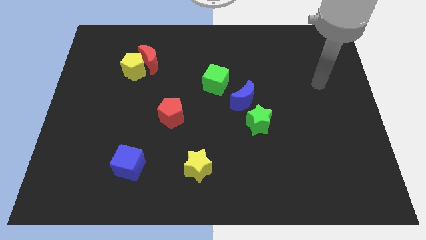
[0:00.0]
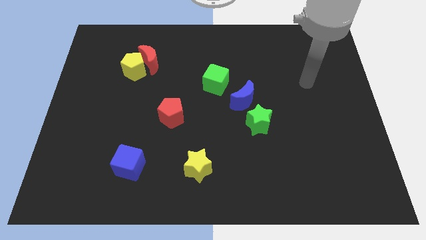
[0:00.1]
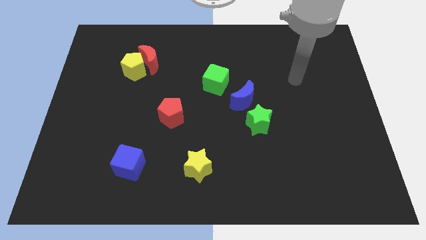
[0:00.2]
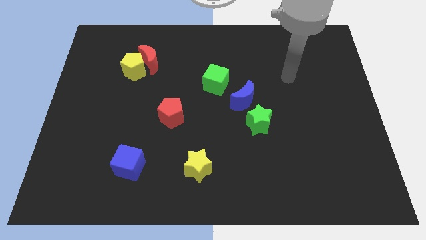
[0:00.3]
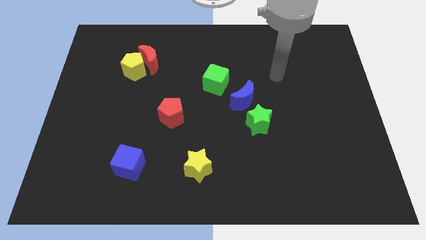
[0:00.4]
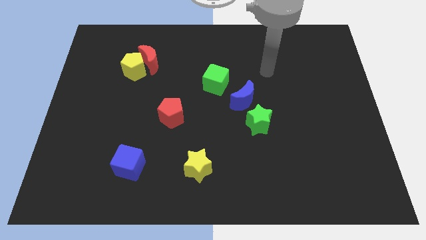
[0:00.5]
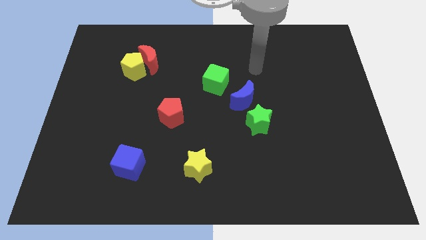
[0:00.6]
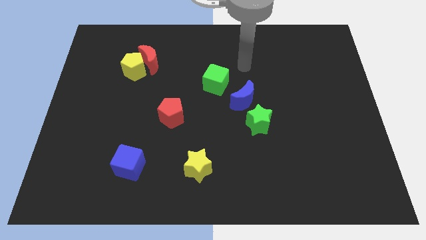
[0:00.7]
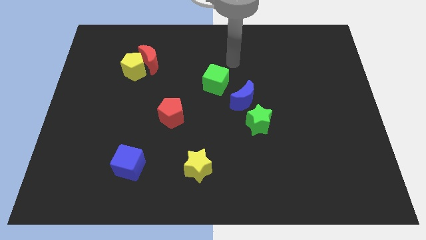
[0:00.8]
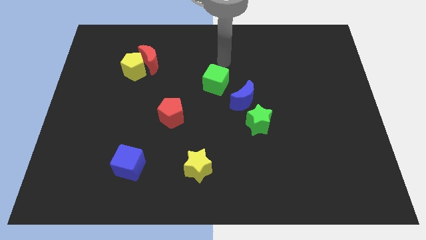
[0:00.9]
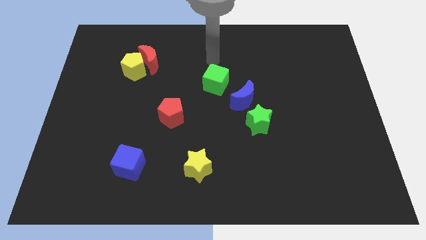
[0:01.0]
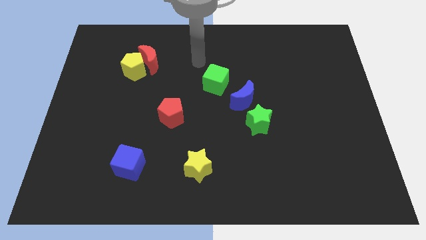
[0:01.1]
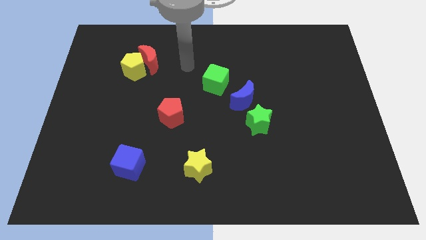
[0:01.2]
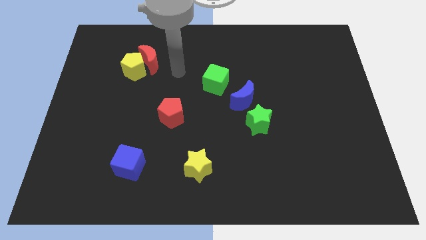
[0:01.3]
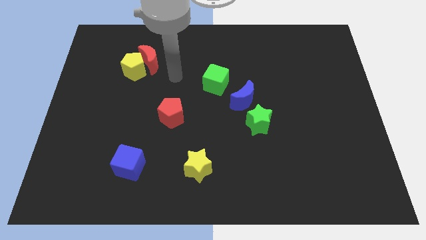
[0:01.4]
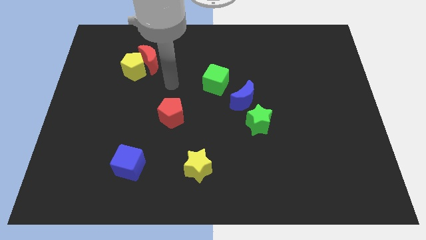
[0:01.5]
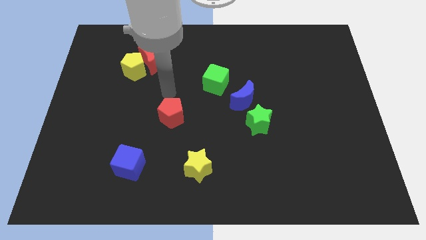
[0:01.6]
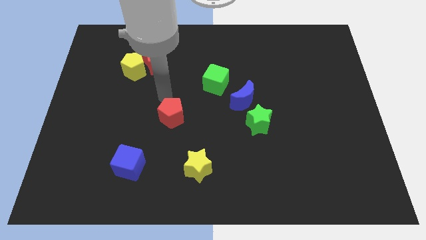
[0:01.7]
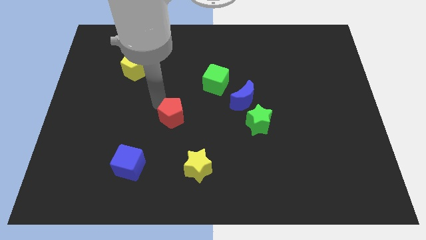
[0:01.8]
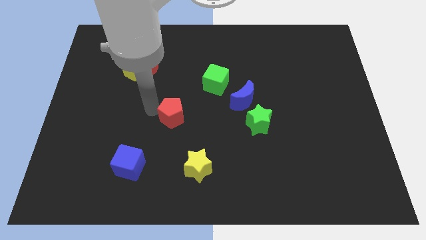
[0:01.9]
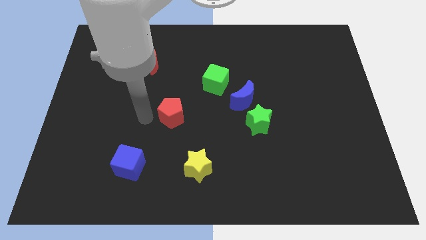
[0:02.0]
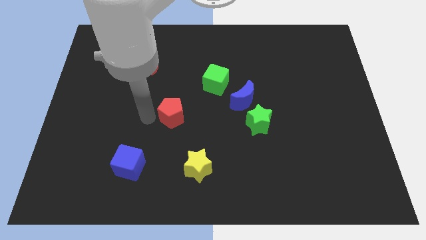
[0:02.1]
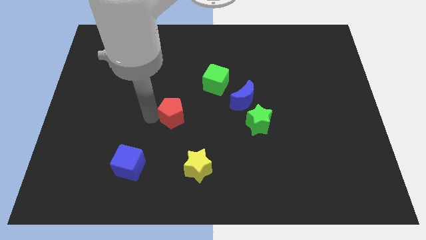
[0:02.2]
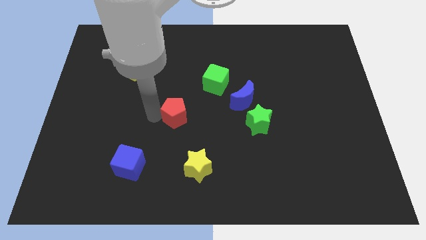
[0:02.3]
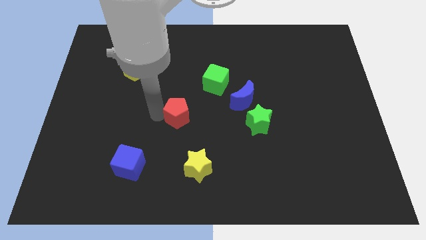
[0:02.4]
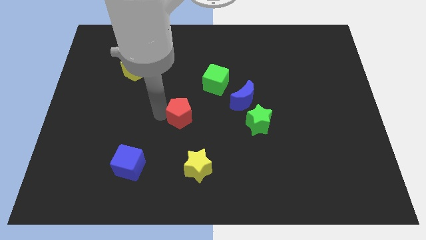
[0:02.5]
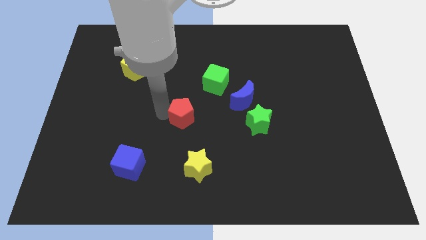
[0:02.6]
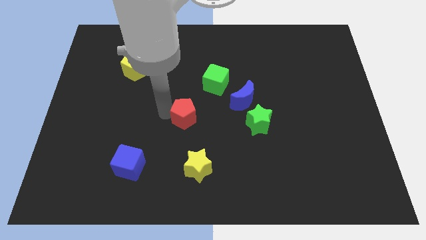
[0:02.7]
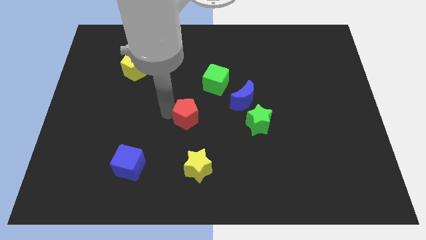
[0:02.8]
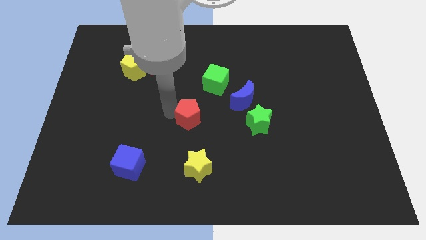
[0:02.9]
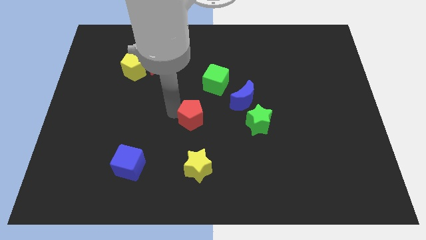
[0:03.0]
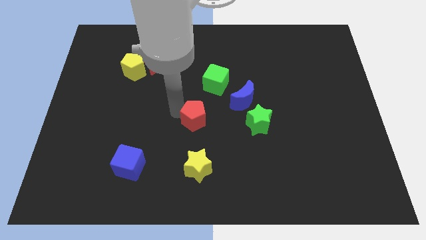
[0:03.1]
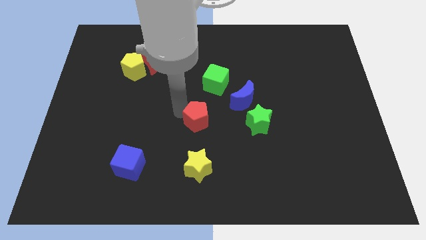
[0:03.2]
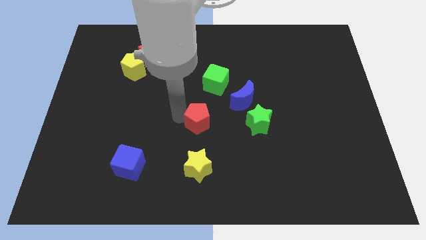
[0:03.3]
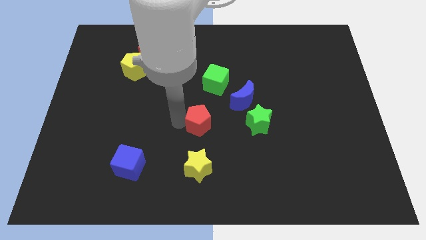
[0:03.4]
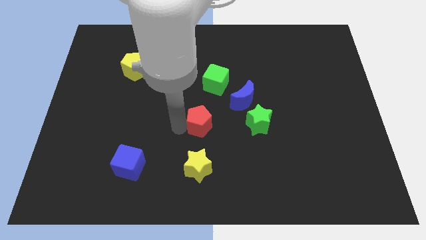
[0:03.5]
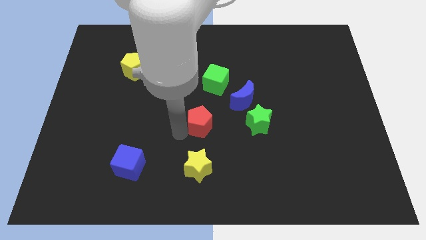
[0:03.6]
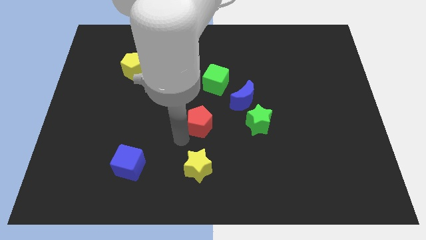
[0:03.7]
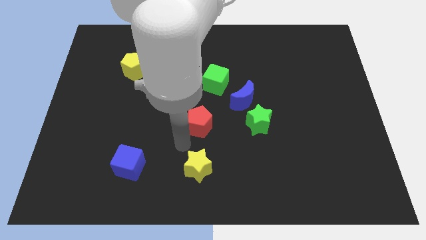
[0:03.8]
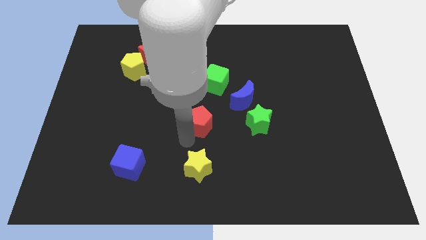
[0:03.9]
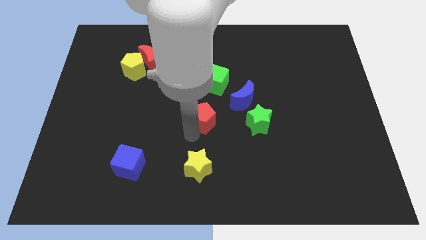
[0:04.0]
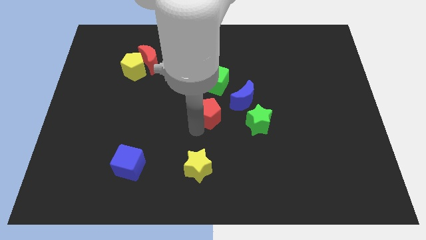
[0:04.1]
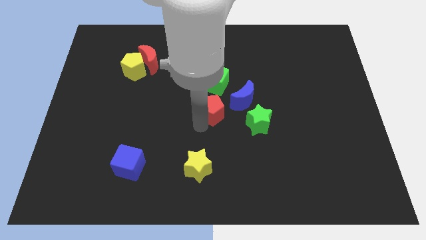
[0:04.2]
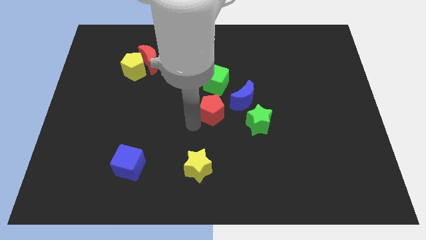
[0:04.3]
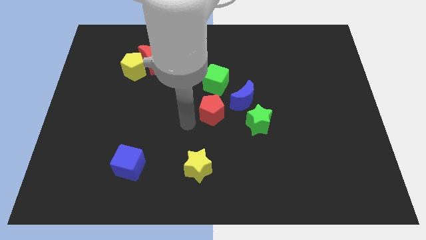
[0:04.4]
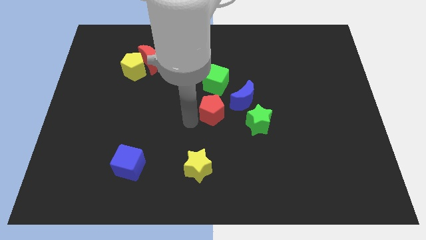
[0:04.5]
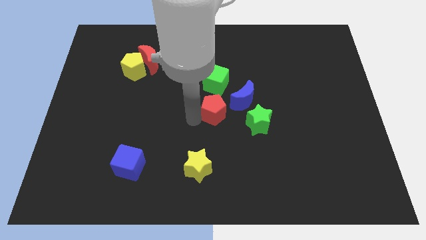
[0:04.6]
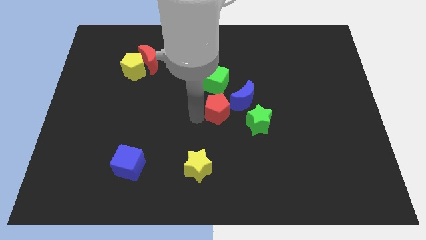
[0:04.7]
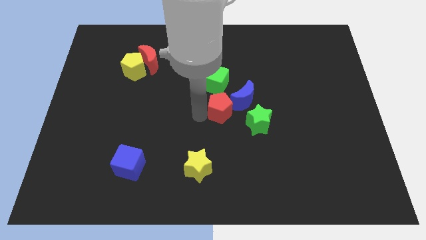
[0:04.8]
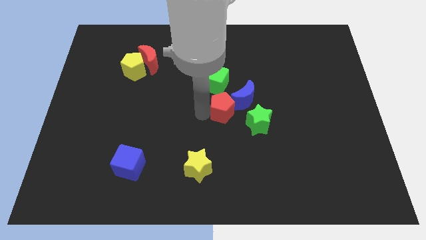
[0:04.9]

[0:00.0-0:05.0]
put the red pentagon next to the blue moon

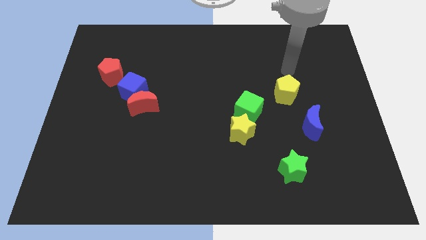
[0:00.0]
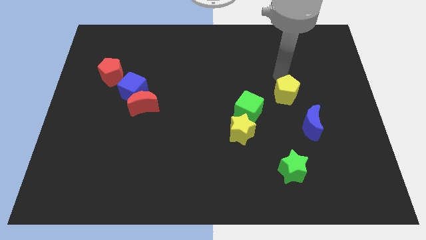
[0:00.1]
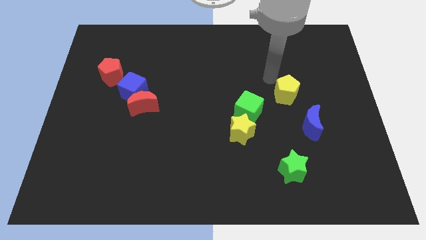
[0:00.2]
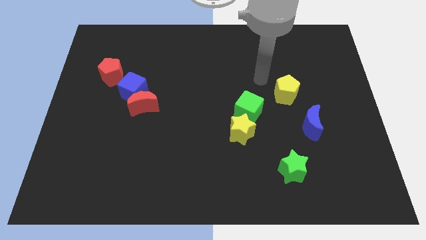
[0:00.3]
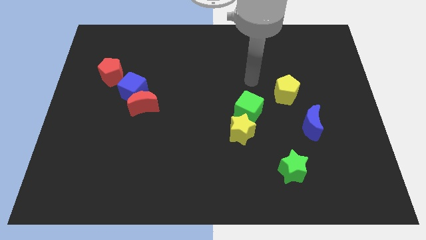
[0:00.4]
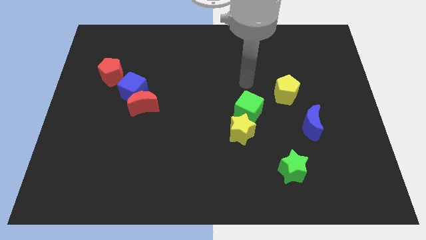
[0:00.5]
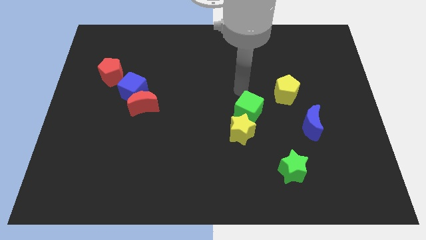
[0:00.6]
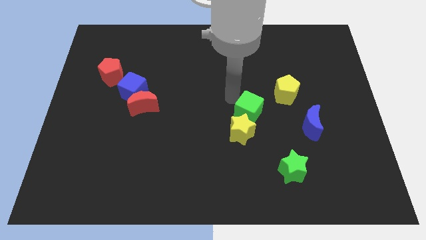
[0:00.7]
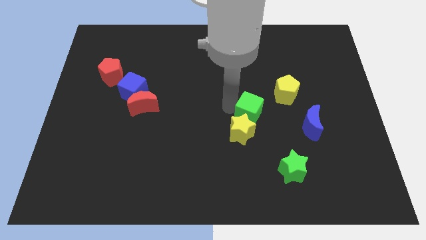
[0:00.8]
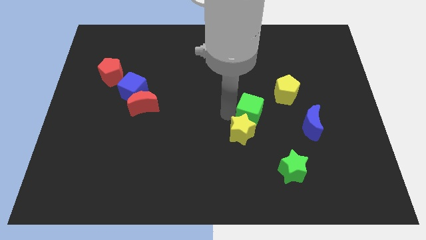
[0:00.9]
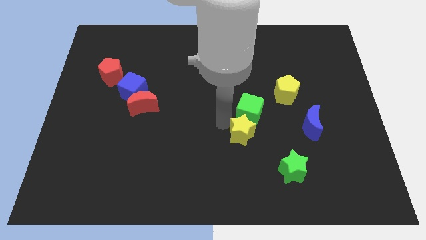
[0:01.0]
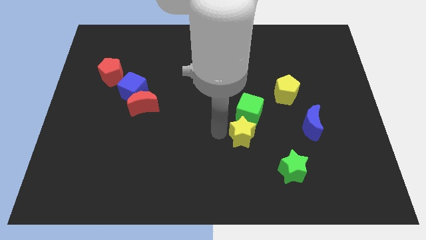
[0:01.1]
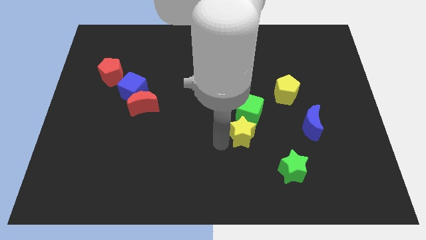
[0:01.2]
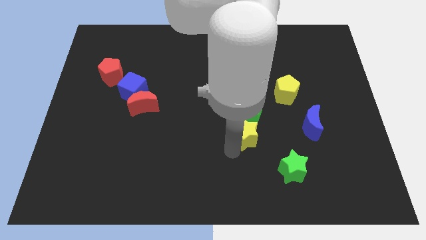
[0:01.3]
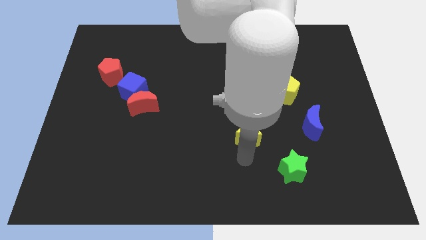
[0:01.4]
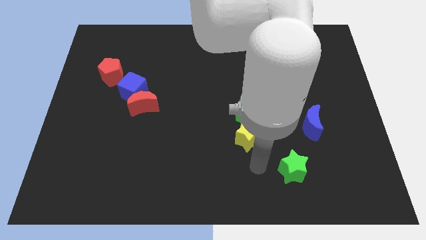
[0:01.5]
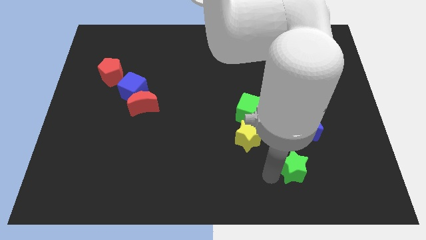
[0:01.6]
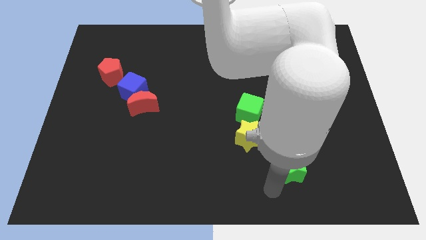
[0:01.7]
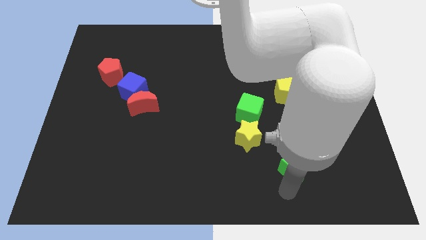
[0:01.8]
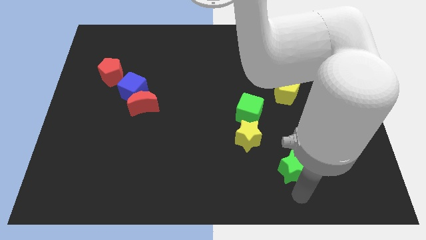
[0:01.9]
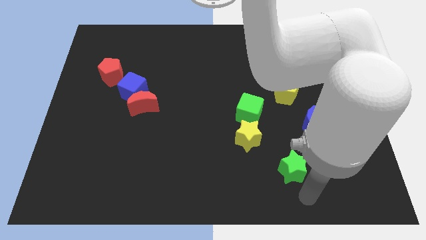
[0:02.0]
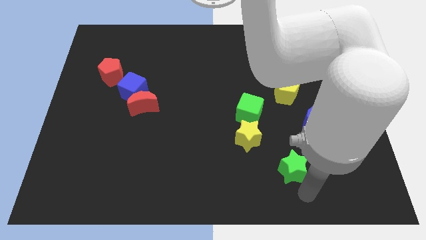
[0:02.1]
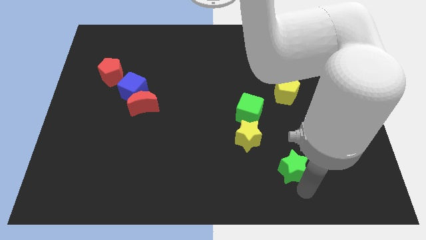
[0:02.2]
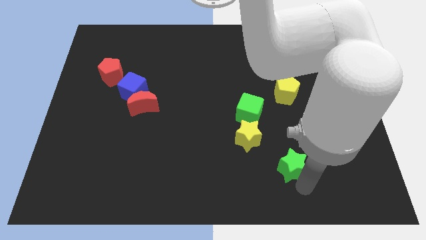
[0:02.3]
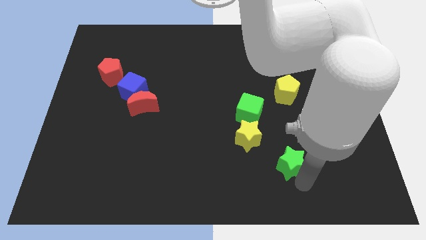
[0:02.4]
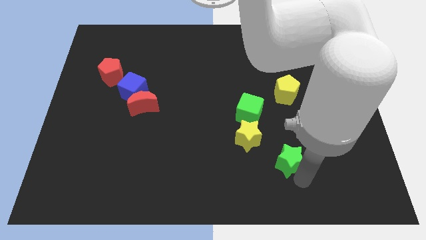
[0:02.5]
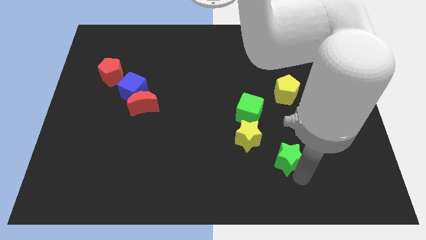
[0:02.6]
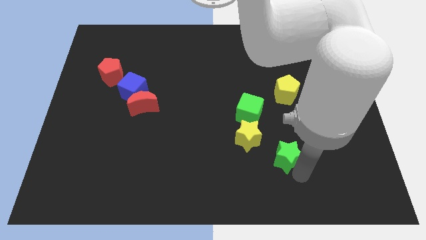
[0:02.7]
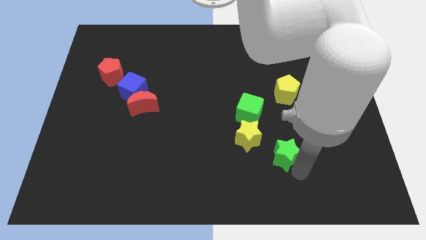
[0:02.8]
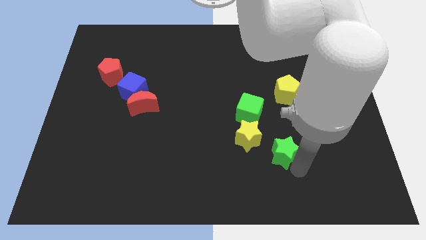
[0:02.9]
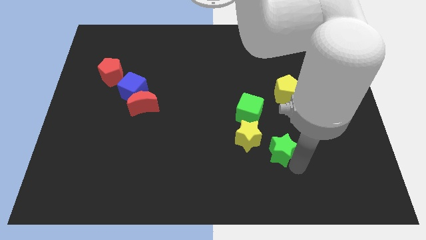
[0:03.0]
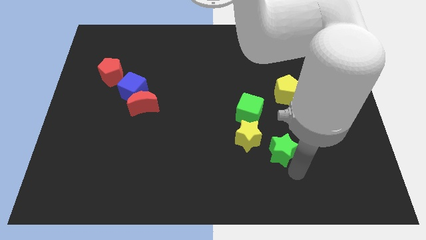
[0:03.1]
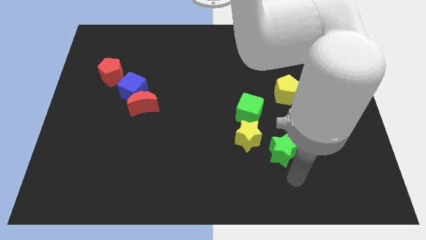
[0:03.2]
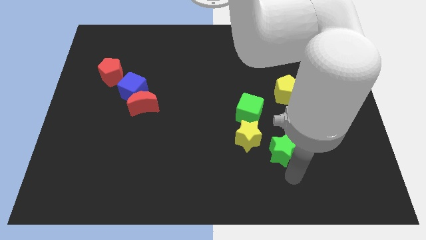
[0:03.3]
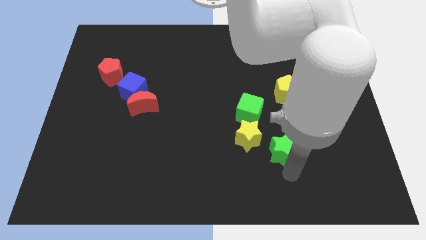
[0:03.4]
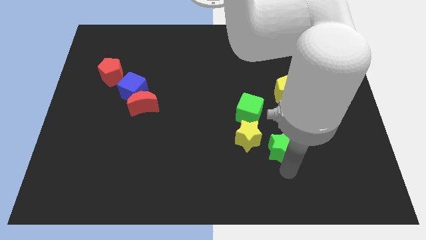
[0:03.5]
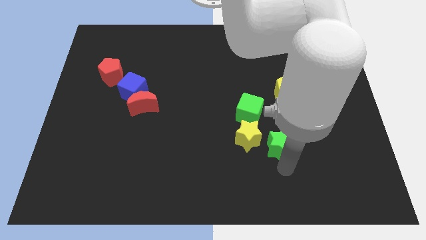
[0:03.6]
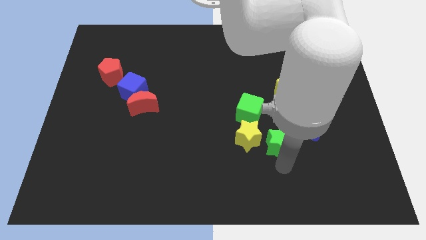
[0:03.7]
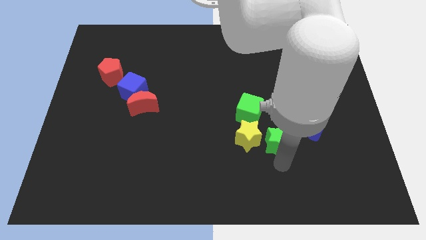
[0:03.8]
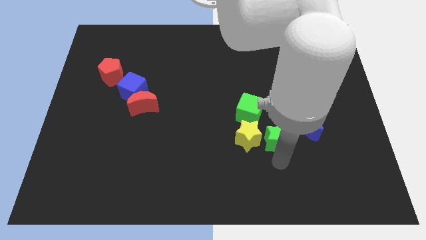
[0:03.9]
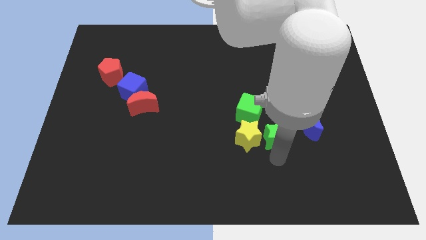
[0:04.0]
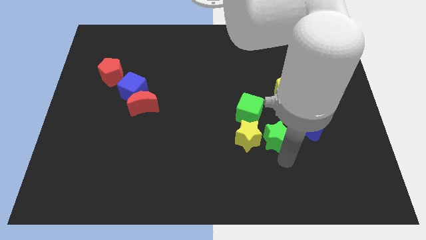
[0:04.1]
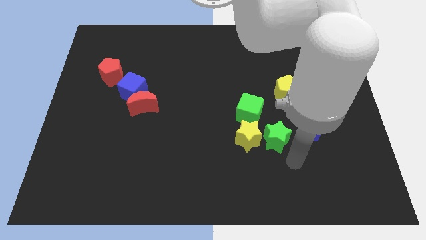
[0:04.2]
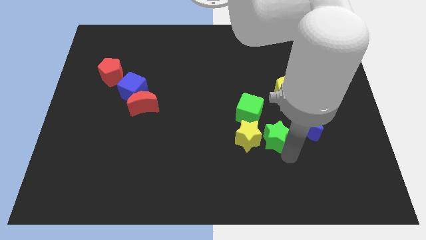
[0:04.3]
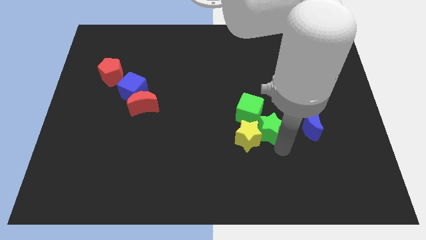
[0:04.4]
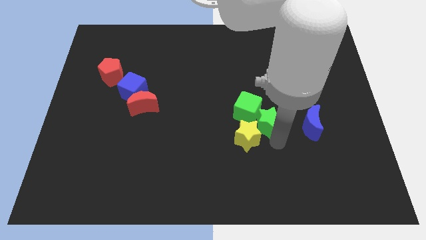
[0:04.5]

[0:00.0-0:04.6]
move the green star to the green cube
